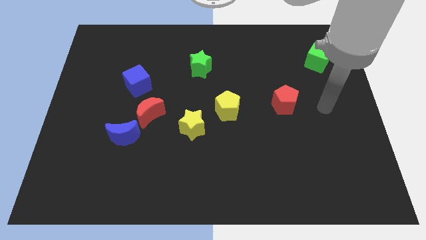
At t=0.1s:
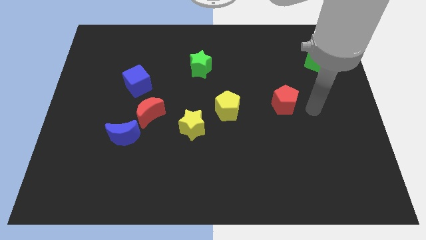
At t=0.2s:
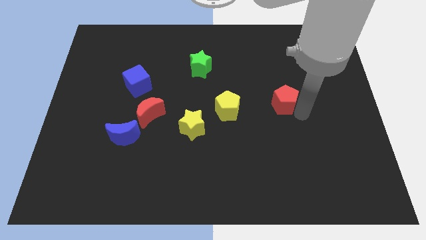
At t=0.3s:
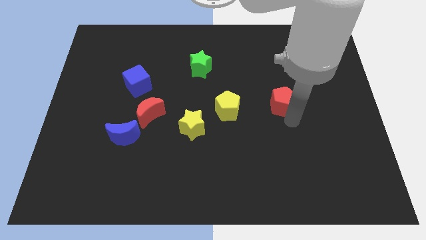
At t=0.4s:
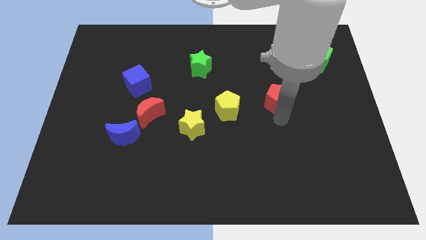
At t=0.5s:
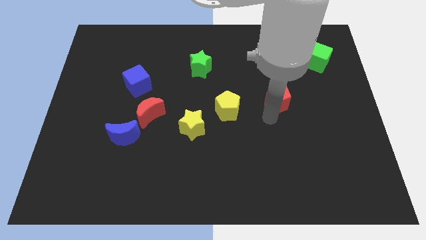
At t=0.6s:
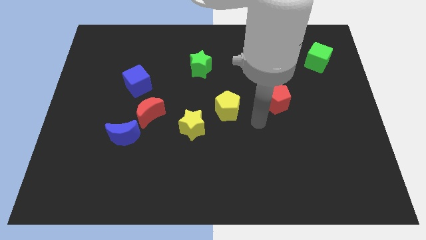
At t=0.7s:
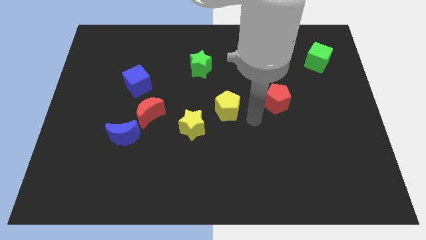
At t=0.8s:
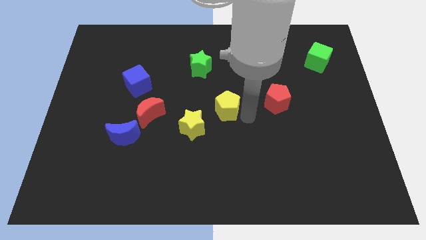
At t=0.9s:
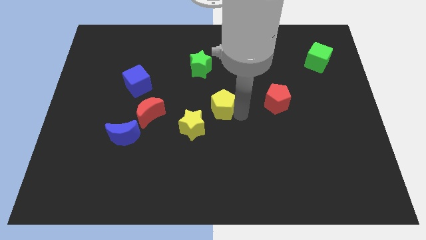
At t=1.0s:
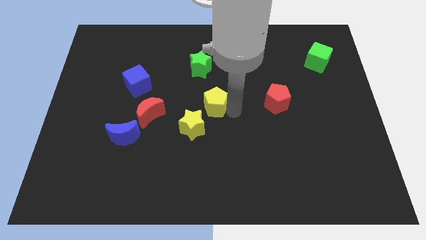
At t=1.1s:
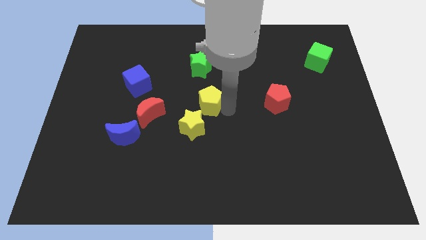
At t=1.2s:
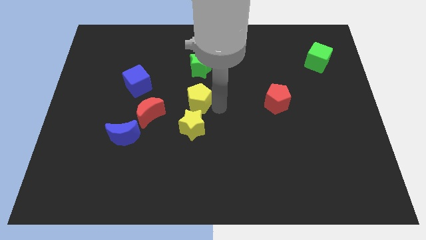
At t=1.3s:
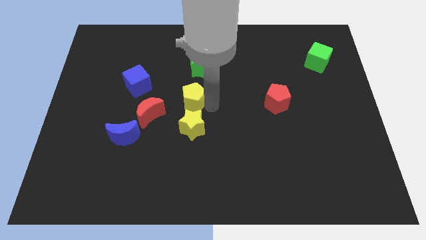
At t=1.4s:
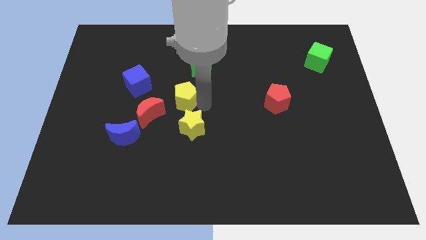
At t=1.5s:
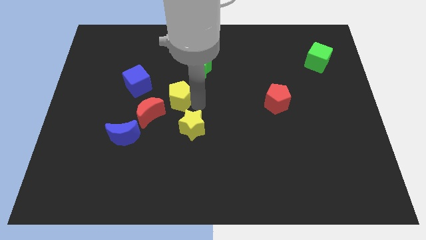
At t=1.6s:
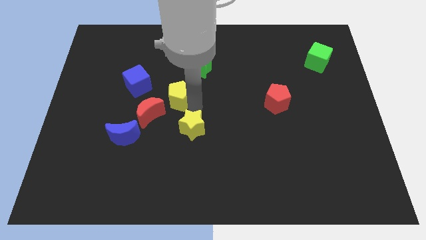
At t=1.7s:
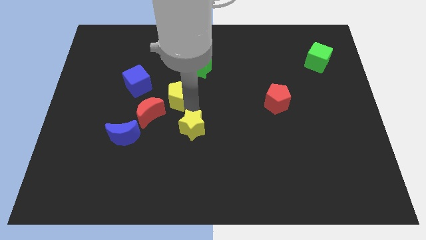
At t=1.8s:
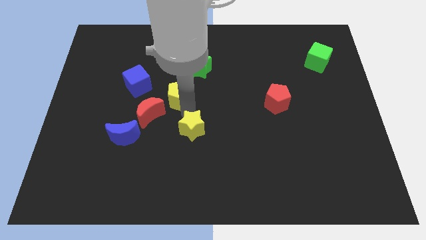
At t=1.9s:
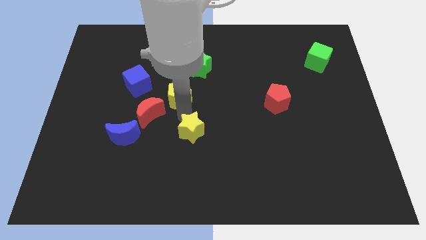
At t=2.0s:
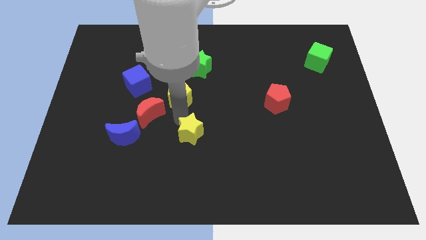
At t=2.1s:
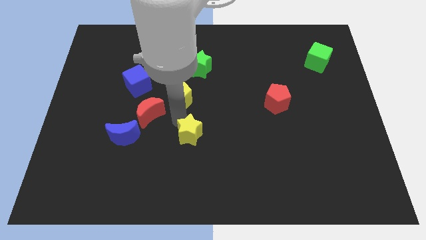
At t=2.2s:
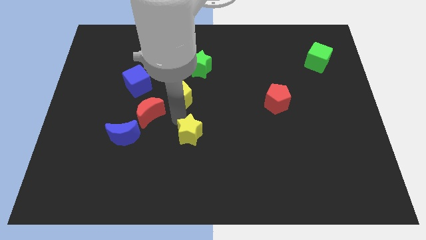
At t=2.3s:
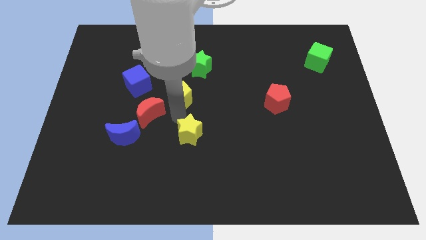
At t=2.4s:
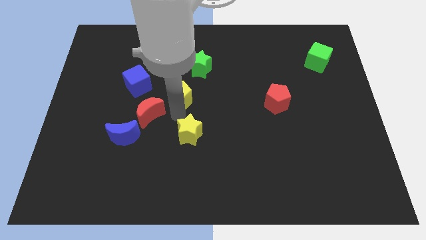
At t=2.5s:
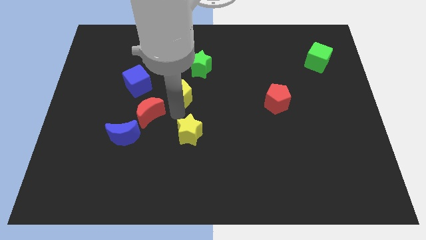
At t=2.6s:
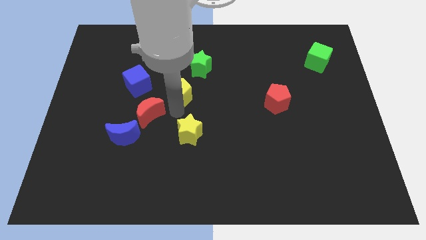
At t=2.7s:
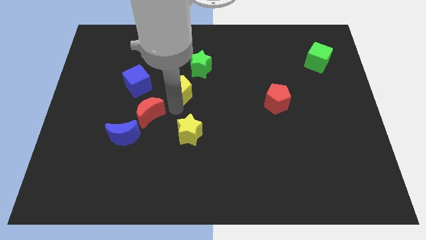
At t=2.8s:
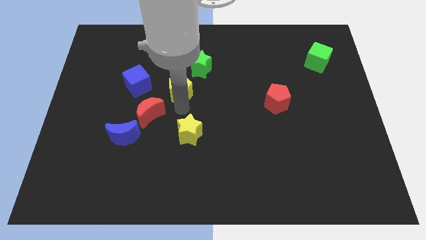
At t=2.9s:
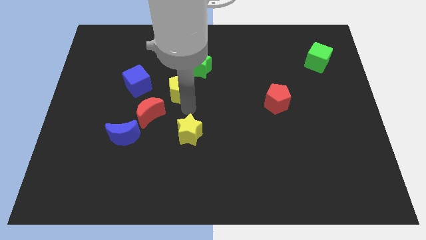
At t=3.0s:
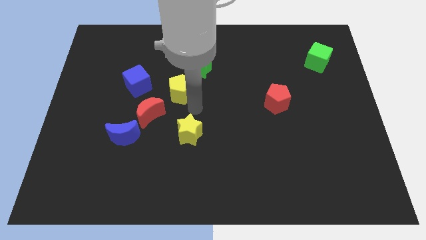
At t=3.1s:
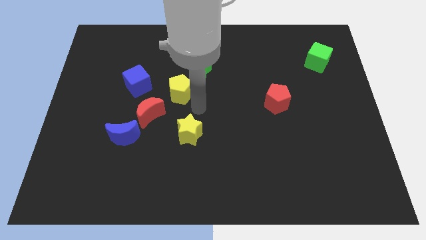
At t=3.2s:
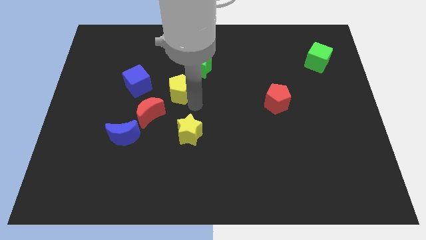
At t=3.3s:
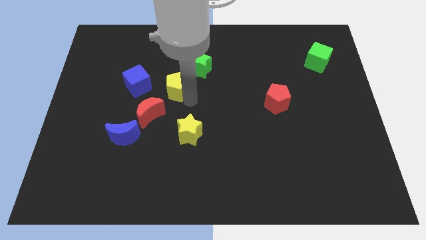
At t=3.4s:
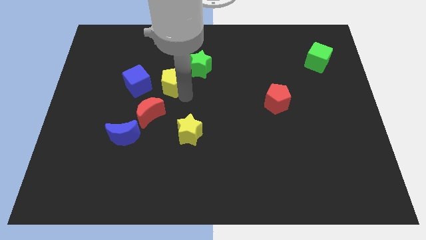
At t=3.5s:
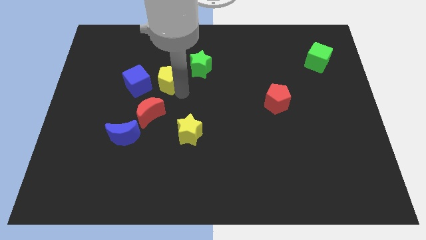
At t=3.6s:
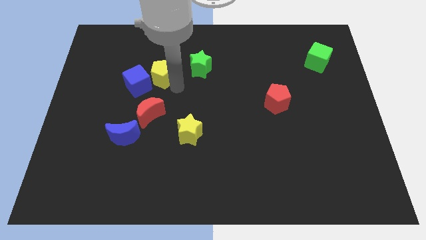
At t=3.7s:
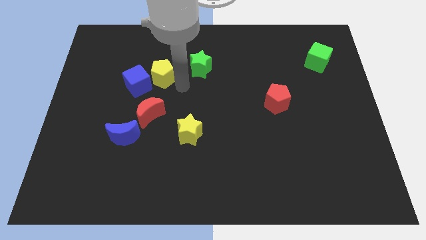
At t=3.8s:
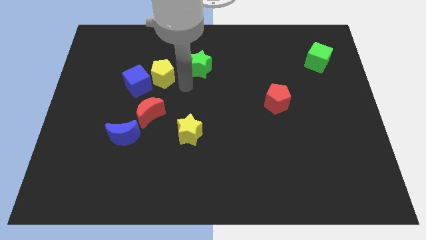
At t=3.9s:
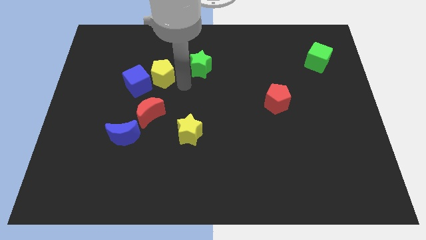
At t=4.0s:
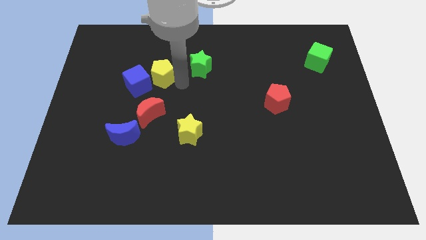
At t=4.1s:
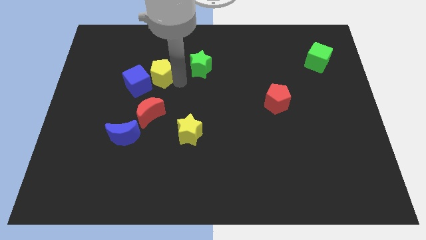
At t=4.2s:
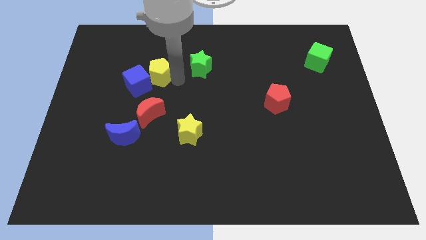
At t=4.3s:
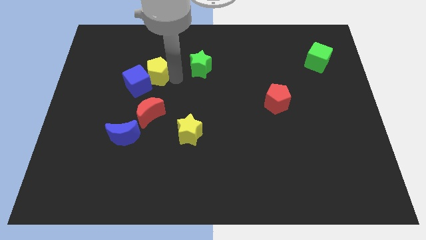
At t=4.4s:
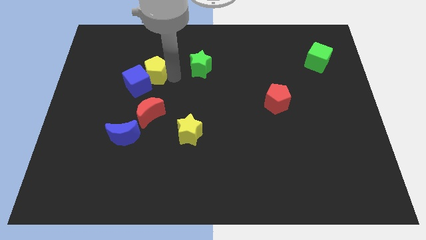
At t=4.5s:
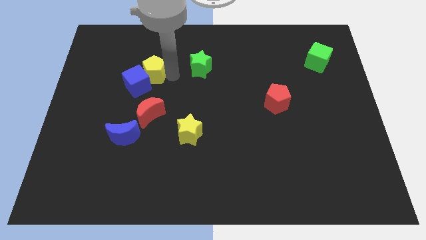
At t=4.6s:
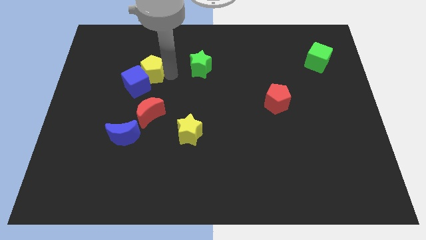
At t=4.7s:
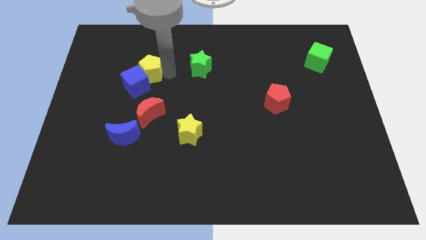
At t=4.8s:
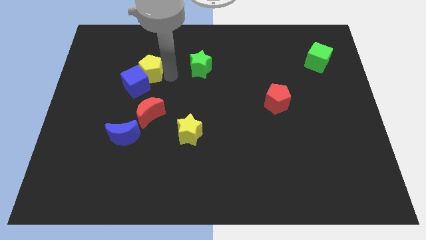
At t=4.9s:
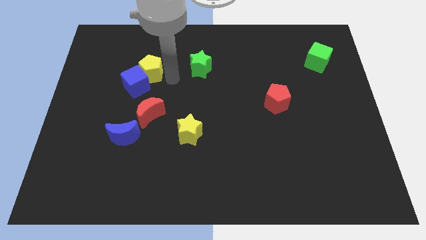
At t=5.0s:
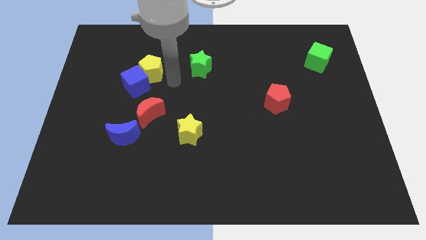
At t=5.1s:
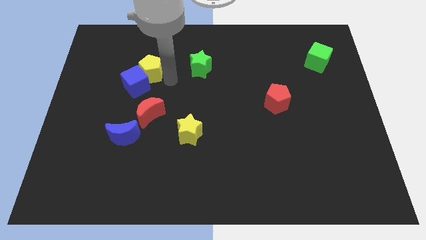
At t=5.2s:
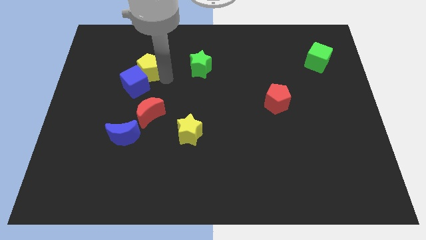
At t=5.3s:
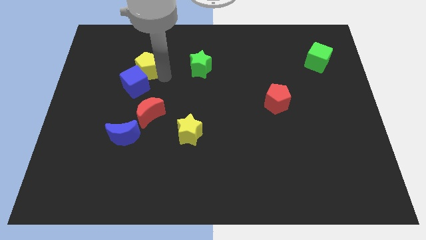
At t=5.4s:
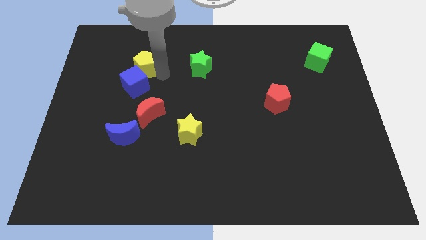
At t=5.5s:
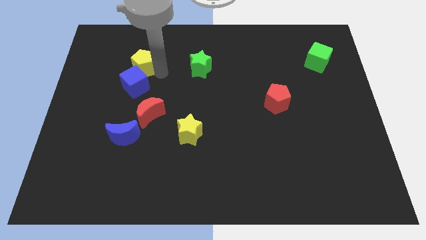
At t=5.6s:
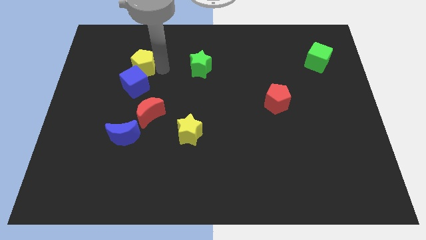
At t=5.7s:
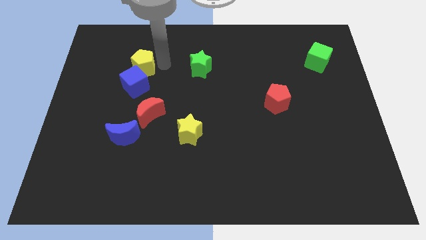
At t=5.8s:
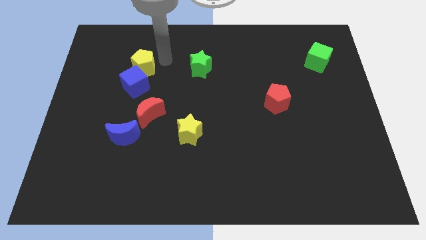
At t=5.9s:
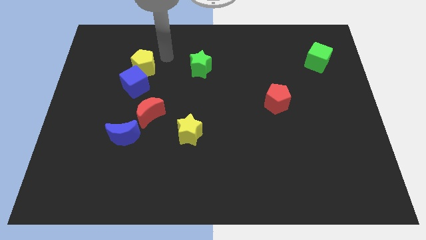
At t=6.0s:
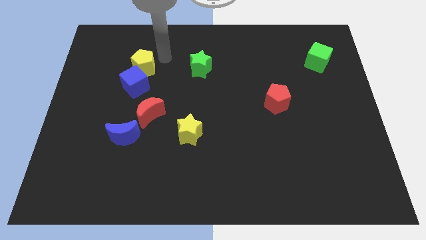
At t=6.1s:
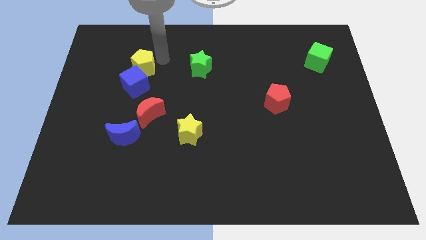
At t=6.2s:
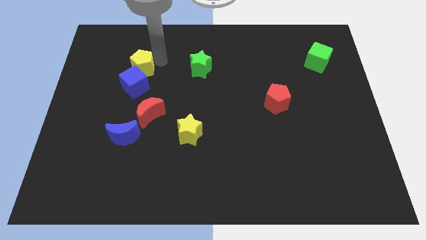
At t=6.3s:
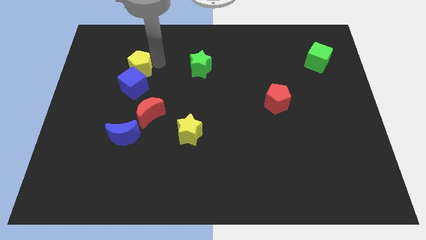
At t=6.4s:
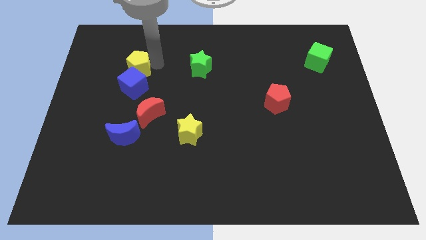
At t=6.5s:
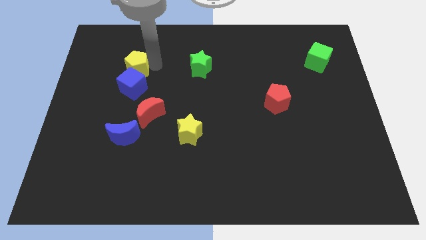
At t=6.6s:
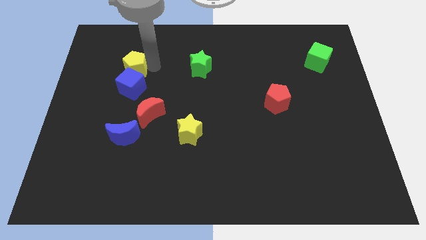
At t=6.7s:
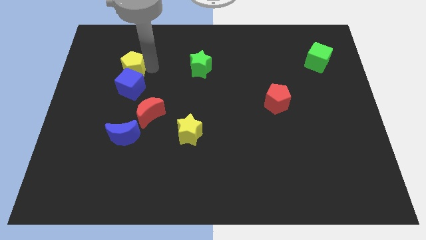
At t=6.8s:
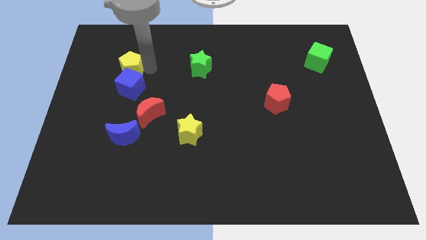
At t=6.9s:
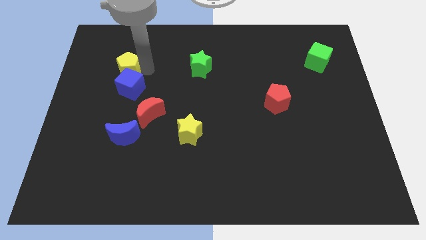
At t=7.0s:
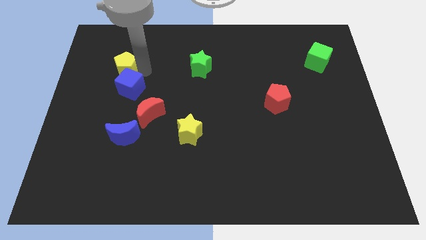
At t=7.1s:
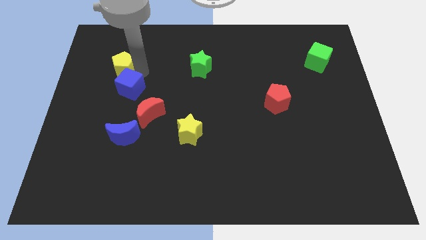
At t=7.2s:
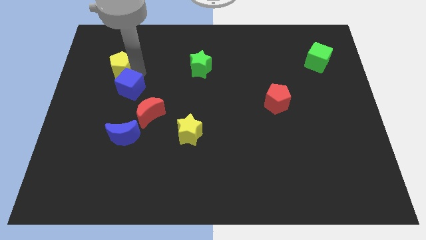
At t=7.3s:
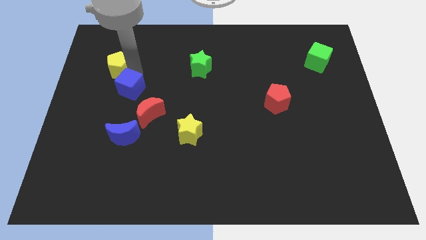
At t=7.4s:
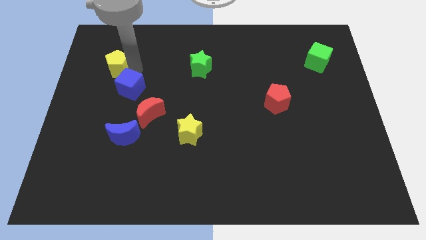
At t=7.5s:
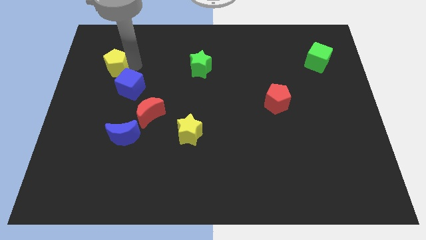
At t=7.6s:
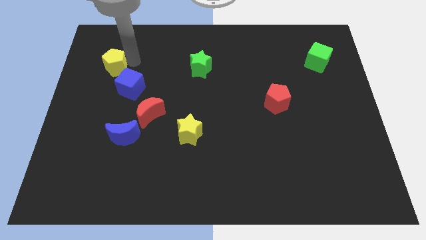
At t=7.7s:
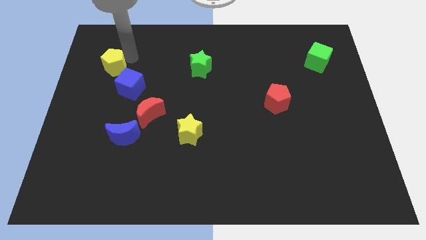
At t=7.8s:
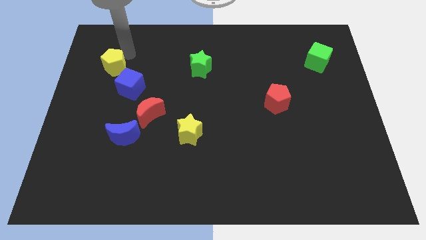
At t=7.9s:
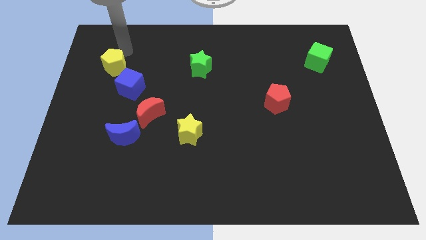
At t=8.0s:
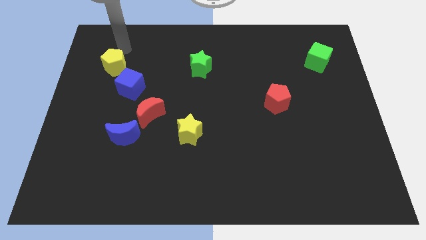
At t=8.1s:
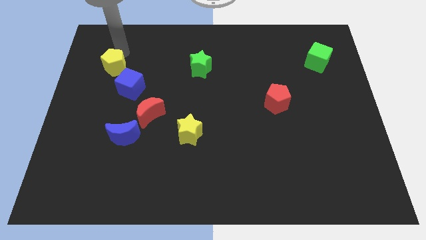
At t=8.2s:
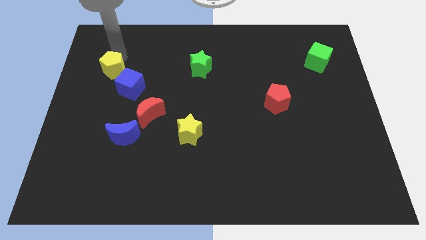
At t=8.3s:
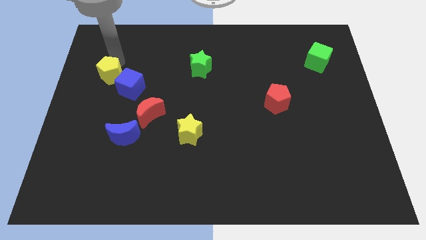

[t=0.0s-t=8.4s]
push the yellow pentagon left
